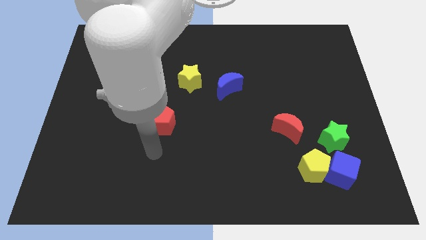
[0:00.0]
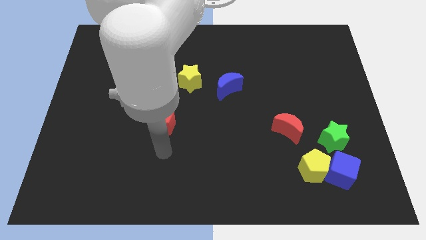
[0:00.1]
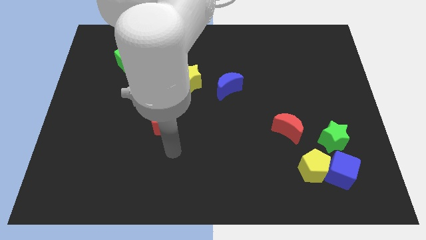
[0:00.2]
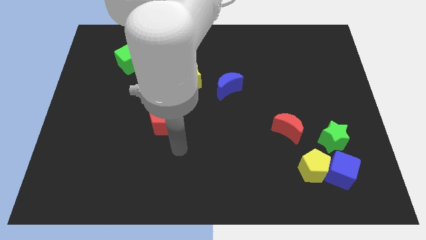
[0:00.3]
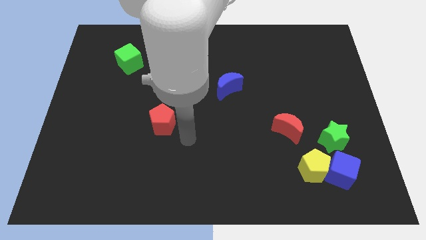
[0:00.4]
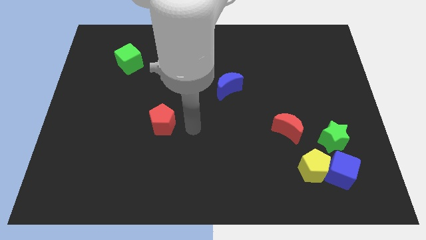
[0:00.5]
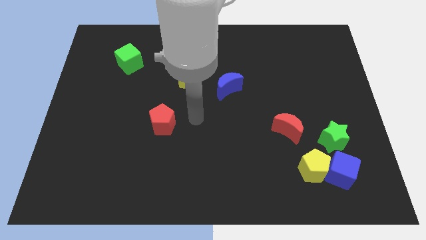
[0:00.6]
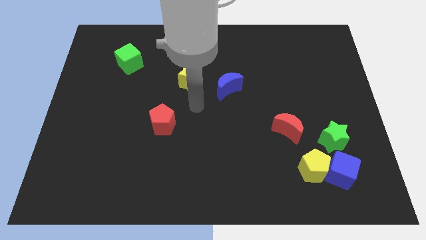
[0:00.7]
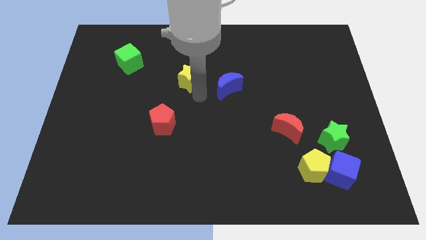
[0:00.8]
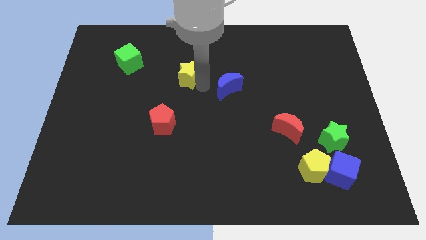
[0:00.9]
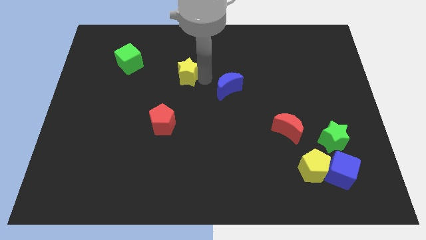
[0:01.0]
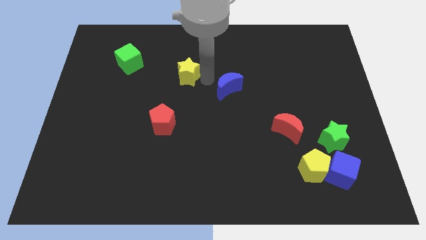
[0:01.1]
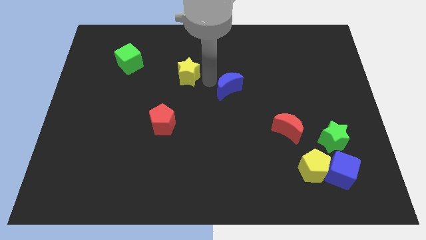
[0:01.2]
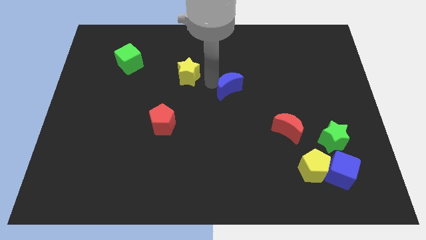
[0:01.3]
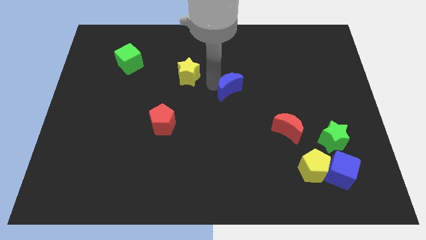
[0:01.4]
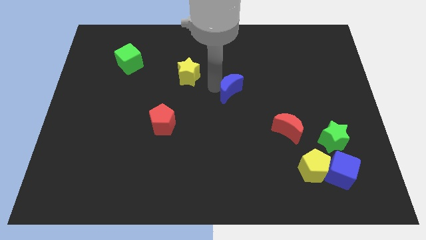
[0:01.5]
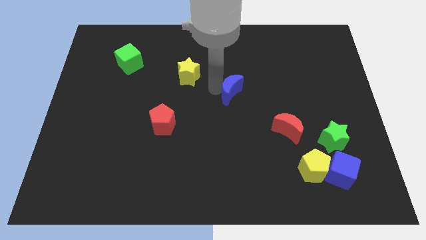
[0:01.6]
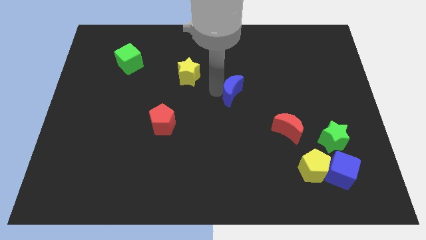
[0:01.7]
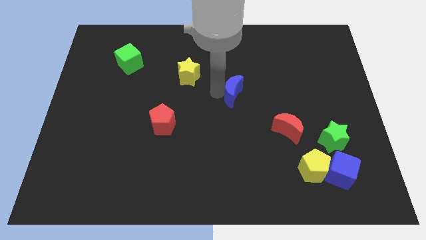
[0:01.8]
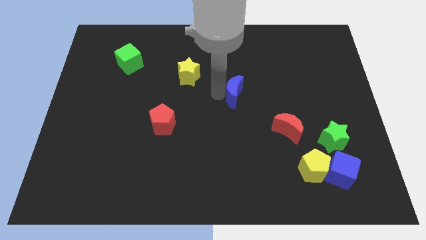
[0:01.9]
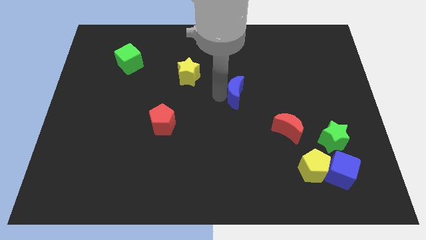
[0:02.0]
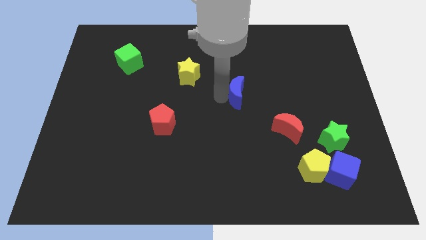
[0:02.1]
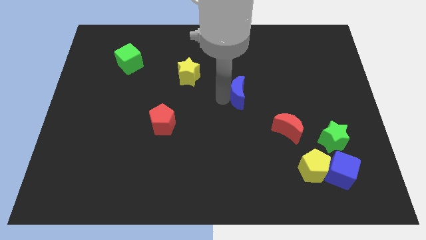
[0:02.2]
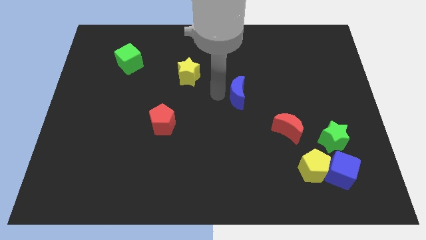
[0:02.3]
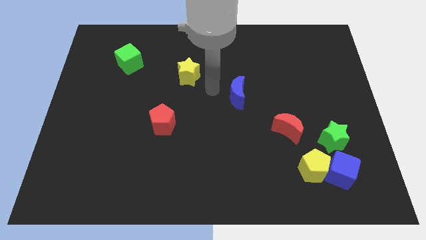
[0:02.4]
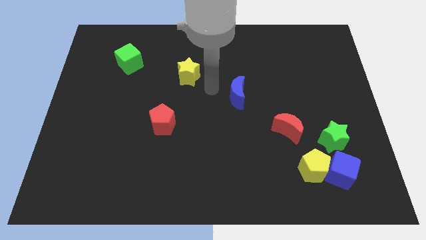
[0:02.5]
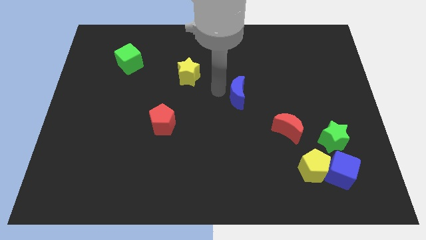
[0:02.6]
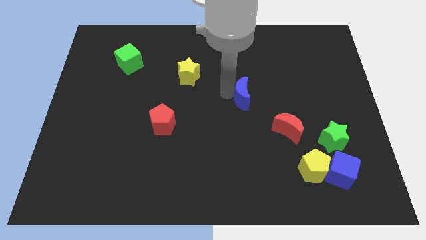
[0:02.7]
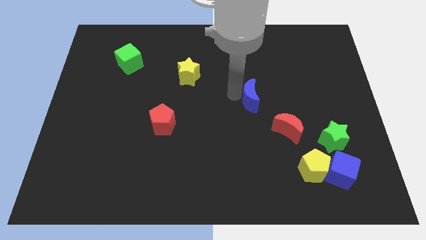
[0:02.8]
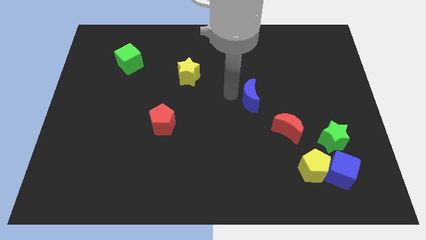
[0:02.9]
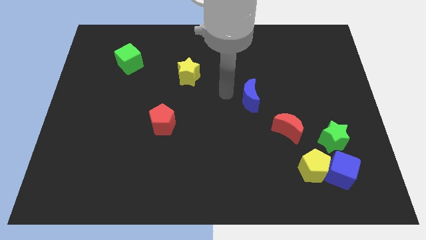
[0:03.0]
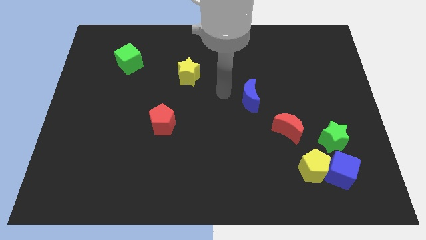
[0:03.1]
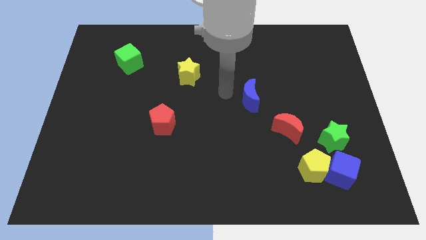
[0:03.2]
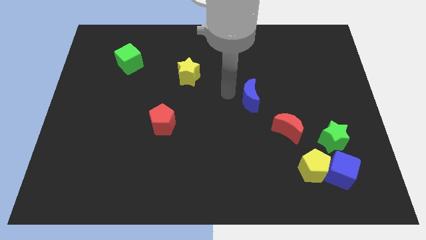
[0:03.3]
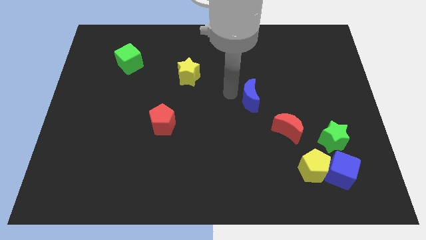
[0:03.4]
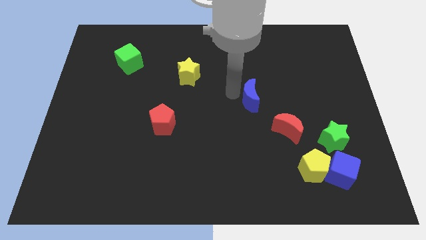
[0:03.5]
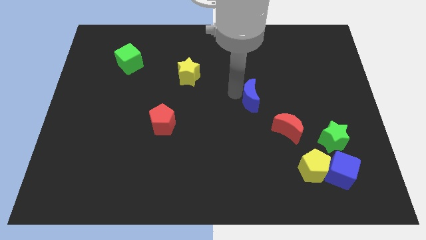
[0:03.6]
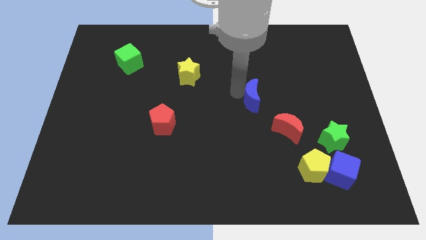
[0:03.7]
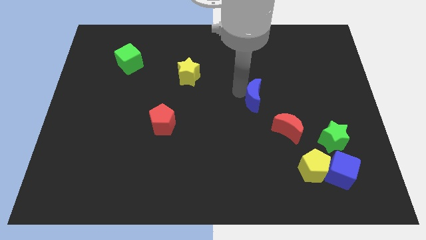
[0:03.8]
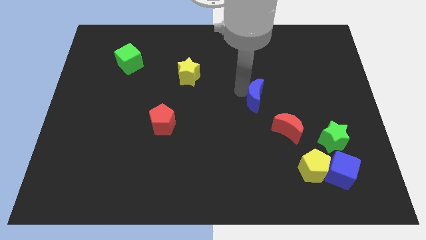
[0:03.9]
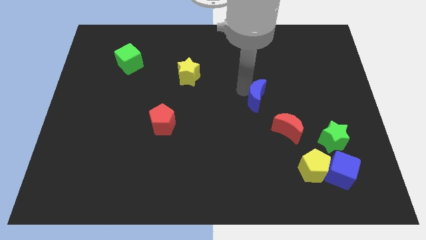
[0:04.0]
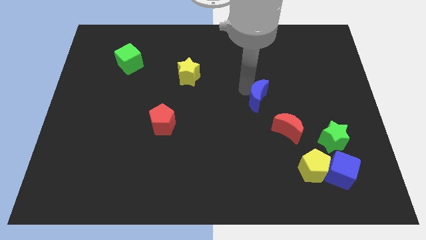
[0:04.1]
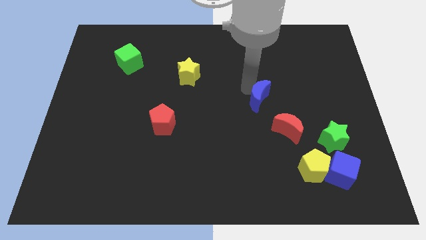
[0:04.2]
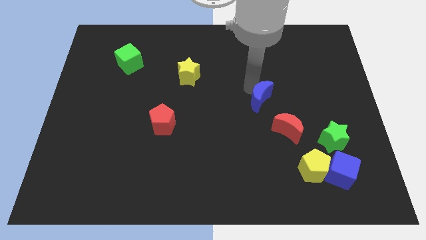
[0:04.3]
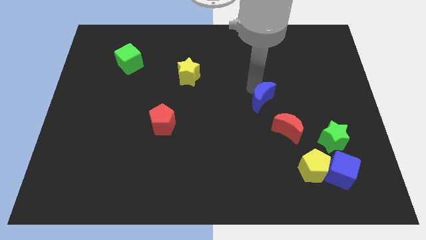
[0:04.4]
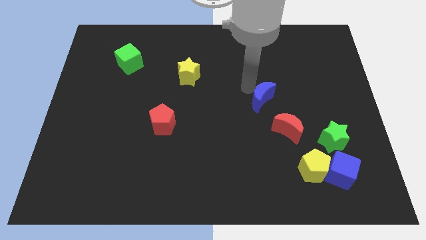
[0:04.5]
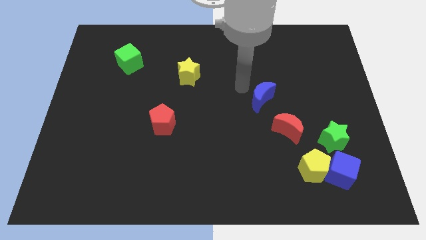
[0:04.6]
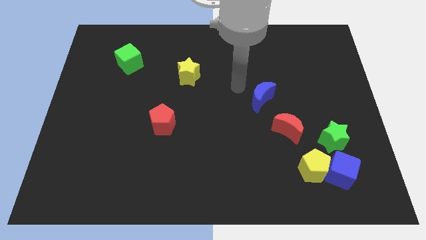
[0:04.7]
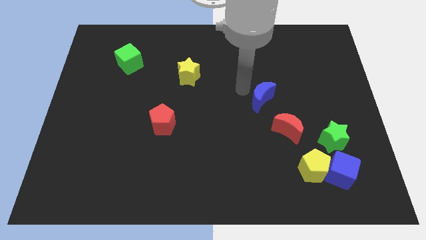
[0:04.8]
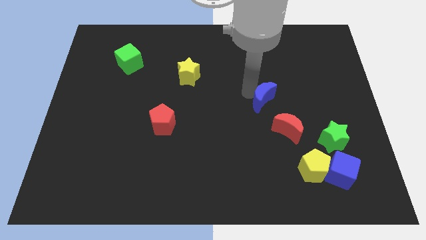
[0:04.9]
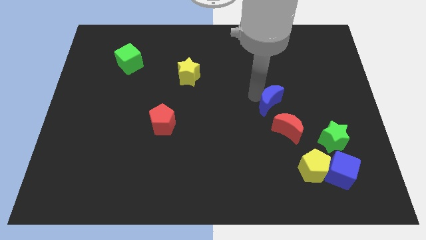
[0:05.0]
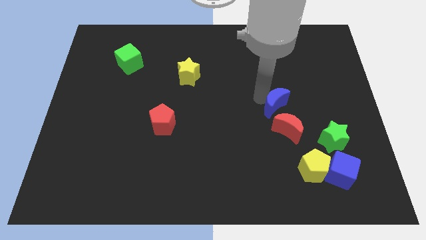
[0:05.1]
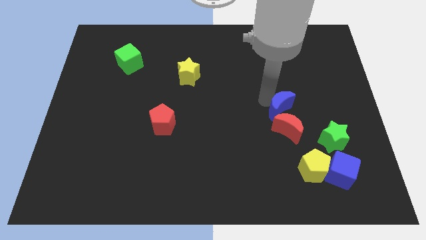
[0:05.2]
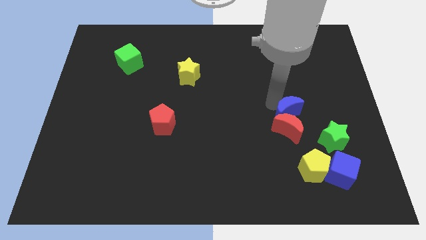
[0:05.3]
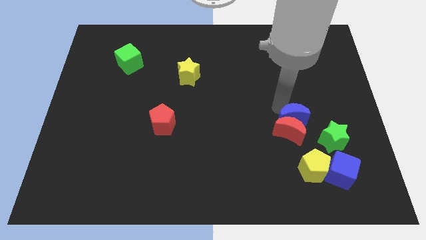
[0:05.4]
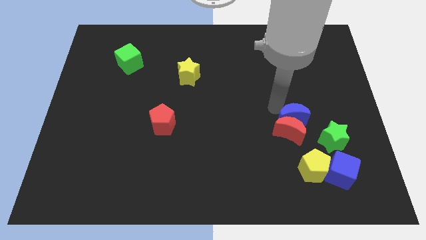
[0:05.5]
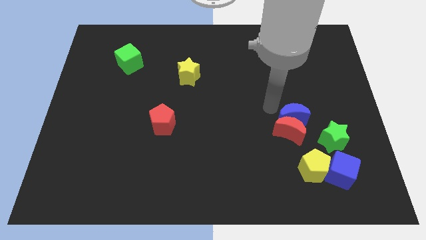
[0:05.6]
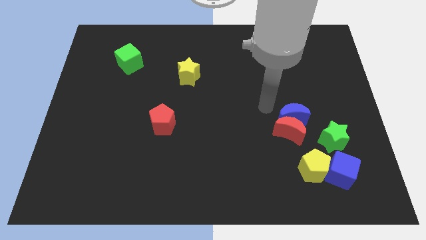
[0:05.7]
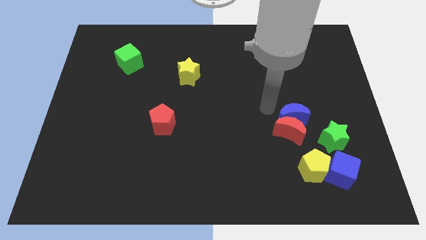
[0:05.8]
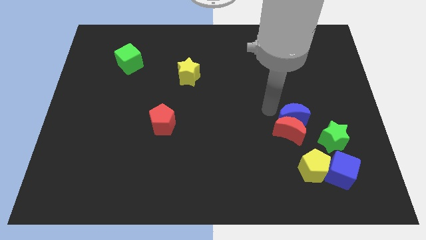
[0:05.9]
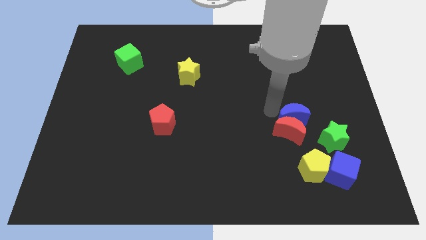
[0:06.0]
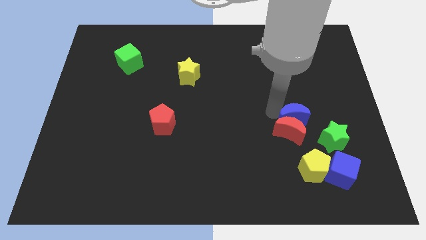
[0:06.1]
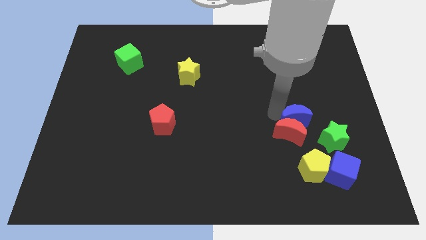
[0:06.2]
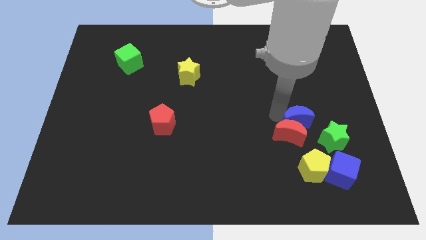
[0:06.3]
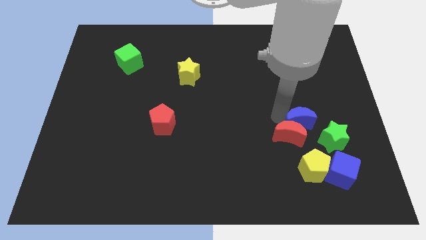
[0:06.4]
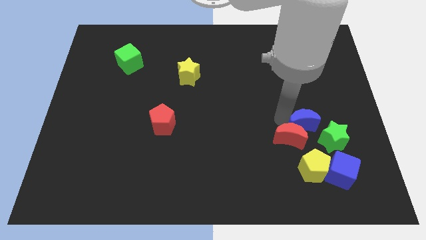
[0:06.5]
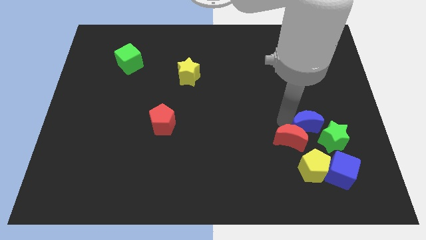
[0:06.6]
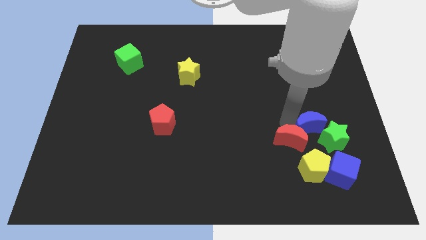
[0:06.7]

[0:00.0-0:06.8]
move the blue moon towards the green star
